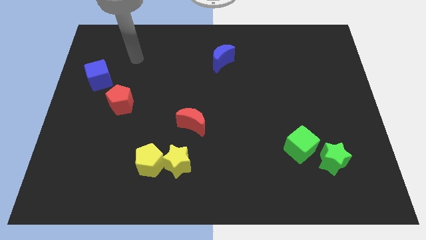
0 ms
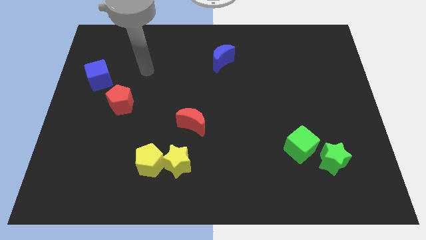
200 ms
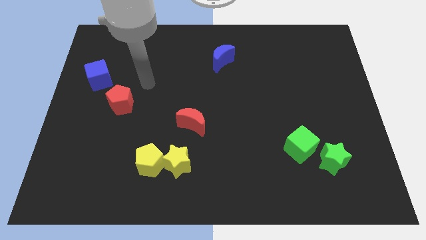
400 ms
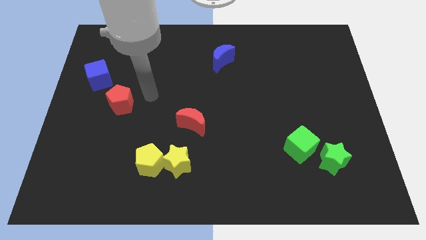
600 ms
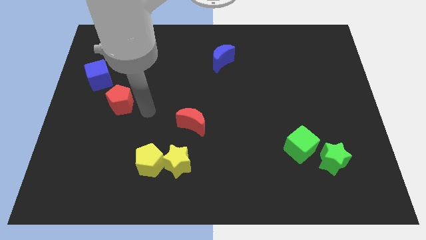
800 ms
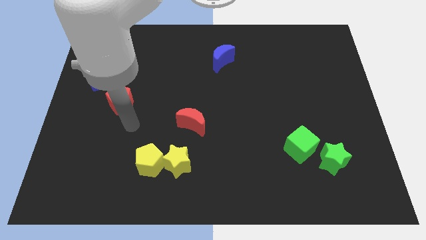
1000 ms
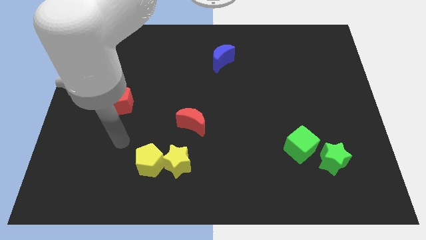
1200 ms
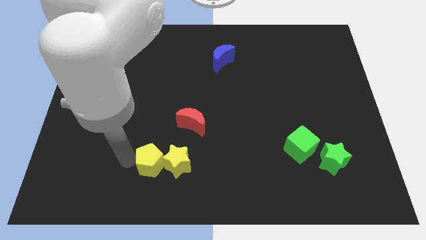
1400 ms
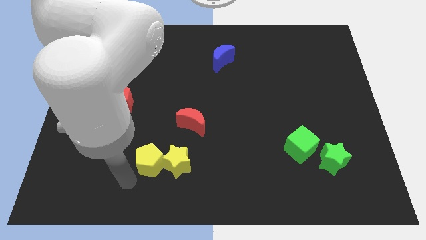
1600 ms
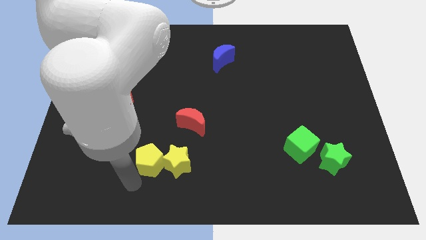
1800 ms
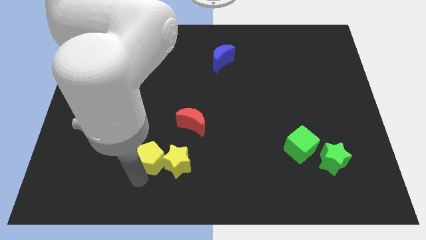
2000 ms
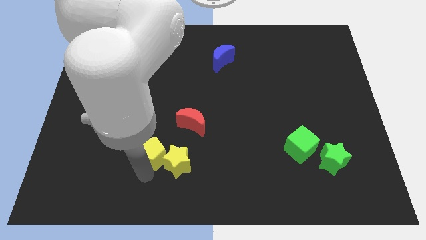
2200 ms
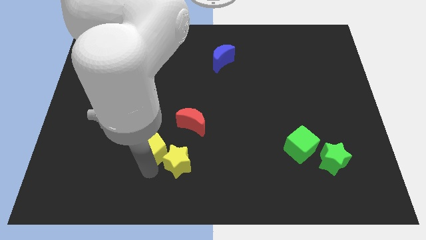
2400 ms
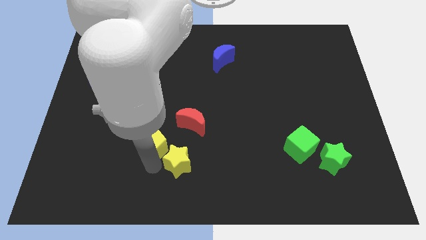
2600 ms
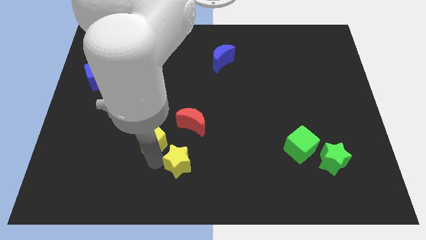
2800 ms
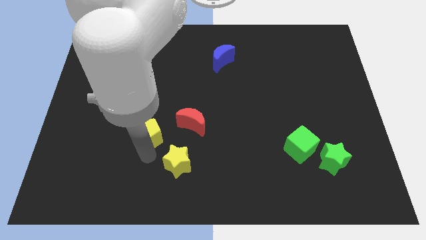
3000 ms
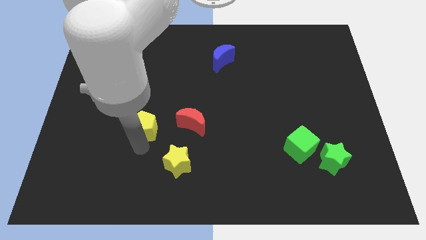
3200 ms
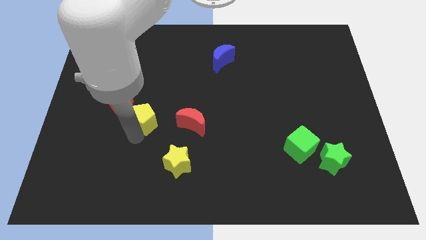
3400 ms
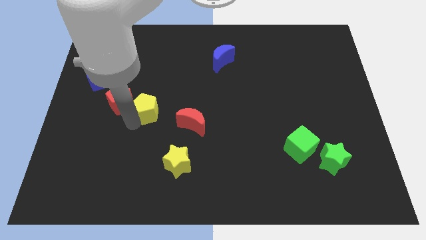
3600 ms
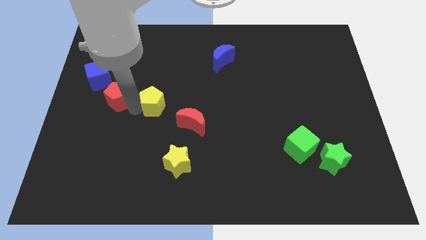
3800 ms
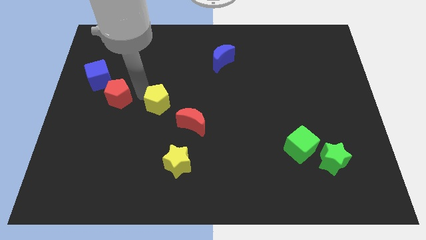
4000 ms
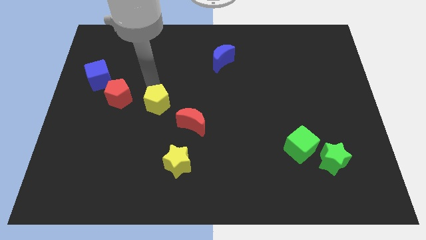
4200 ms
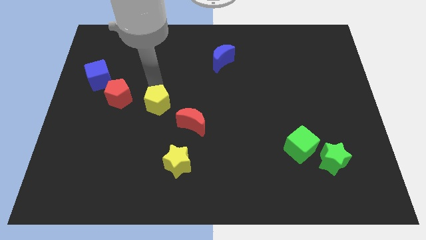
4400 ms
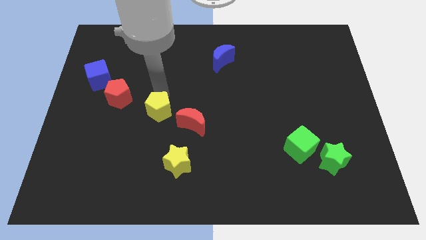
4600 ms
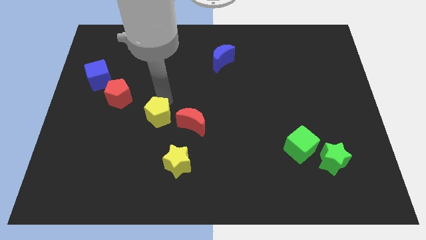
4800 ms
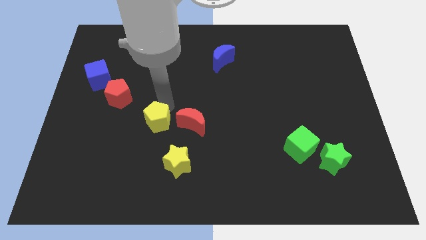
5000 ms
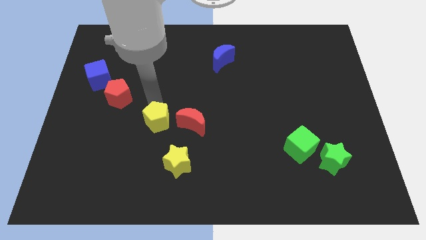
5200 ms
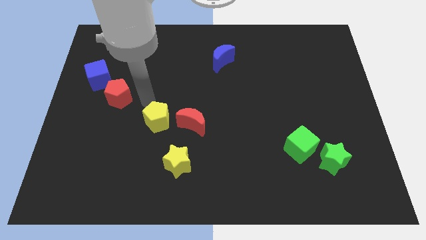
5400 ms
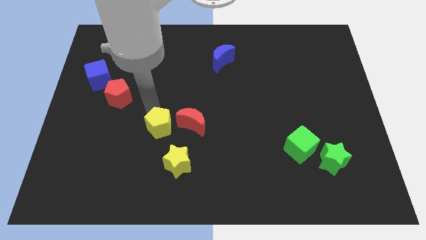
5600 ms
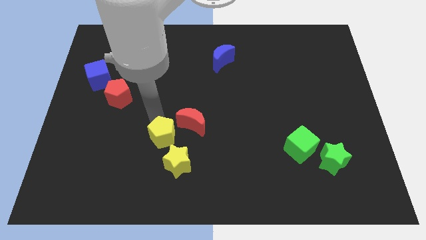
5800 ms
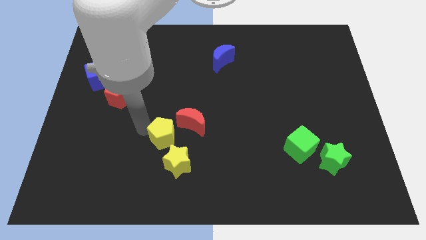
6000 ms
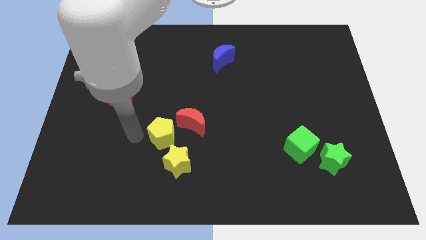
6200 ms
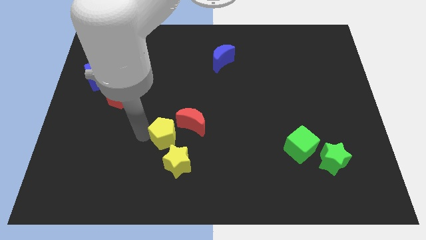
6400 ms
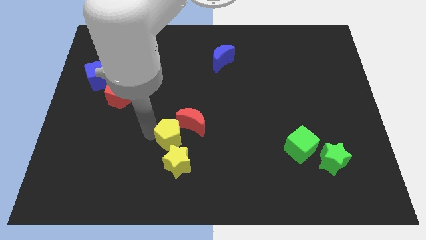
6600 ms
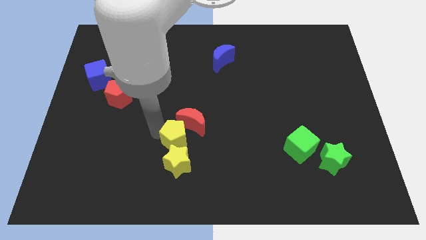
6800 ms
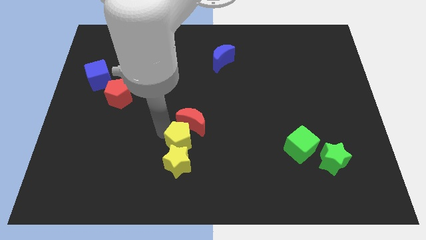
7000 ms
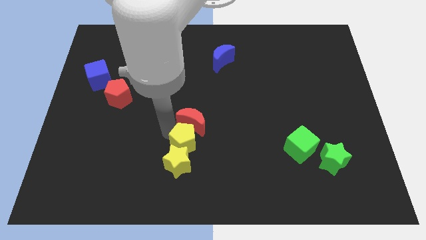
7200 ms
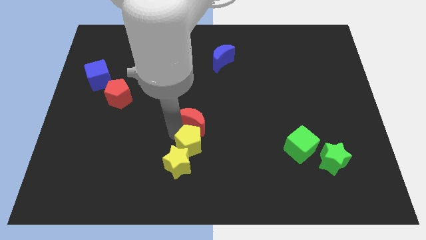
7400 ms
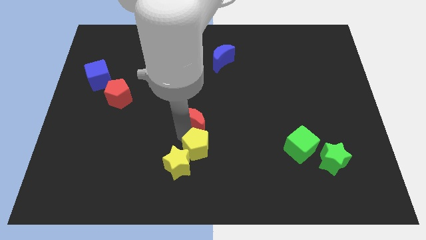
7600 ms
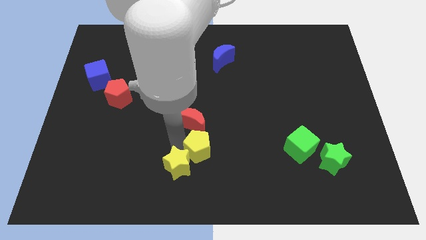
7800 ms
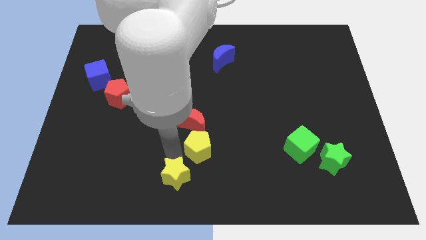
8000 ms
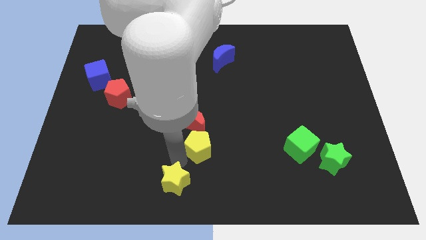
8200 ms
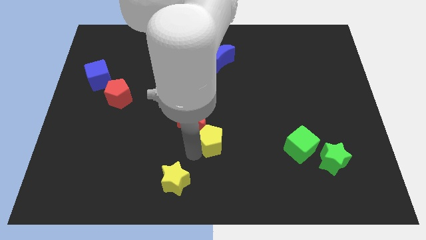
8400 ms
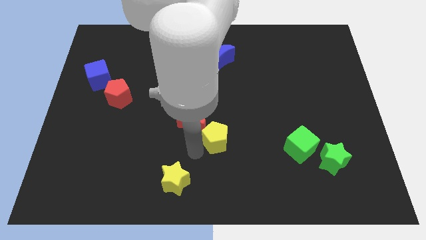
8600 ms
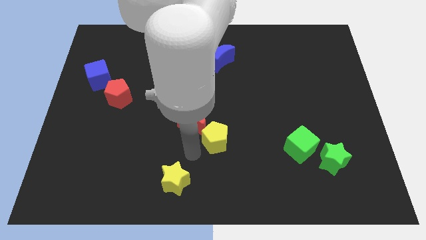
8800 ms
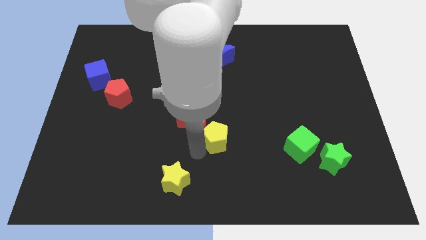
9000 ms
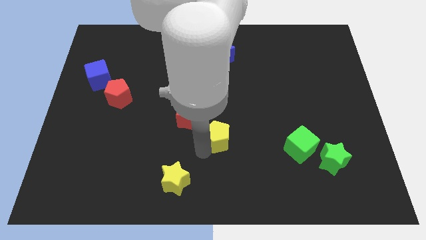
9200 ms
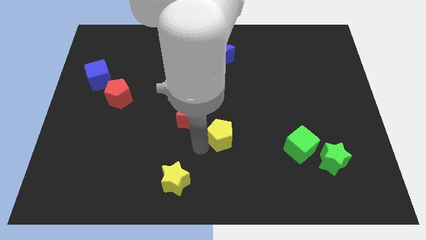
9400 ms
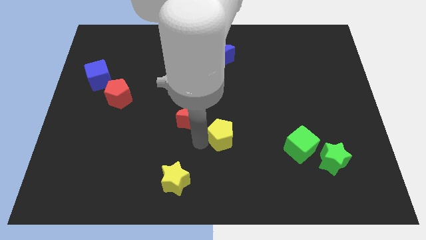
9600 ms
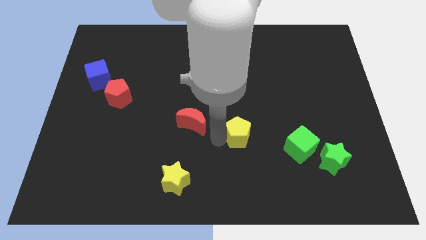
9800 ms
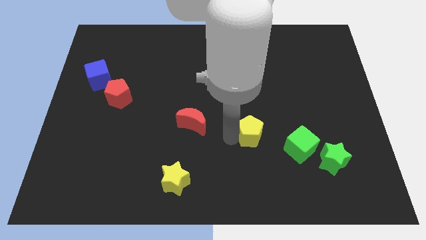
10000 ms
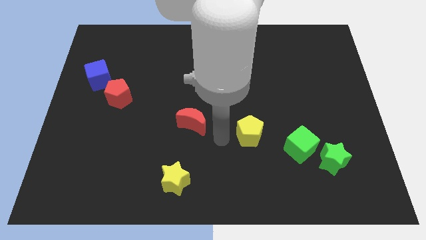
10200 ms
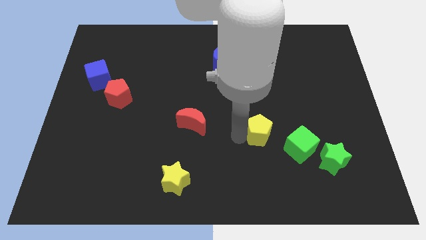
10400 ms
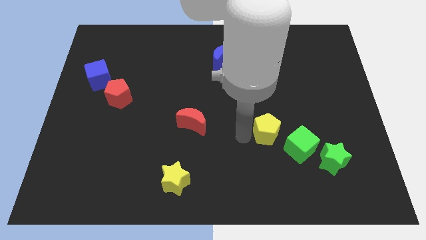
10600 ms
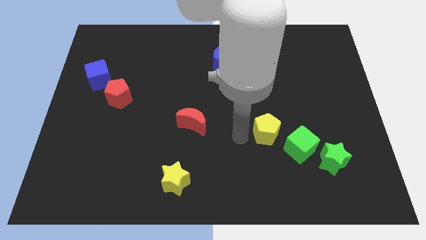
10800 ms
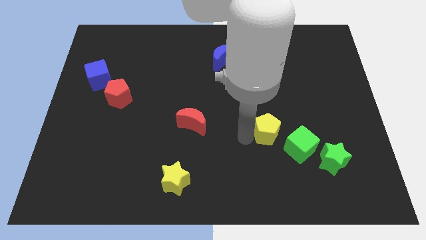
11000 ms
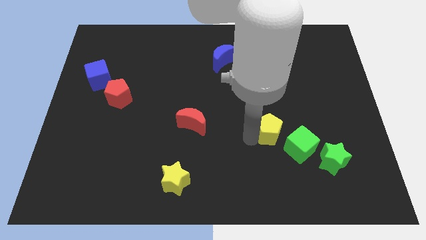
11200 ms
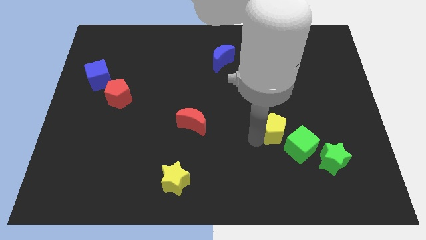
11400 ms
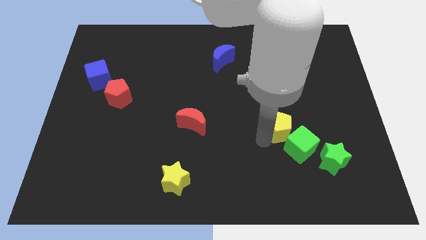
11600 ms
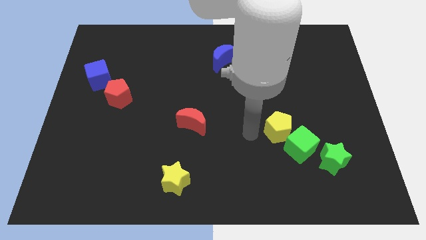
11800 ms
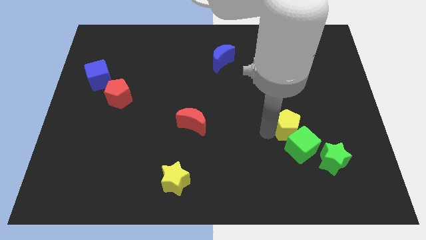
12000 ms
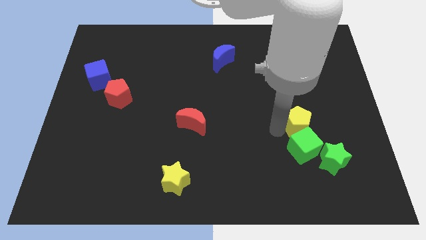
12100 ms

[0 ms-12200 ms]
push the yellow pentagon to the top right of the green cube

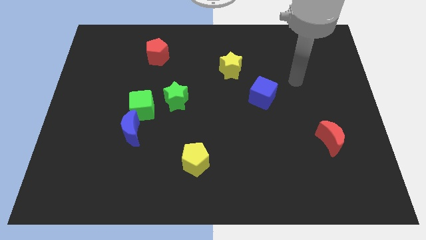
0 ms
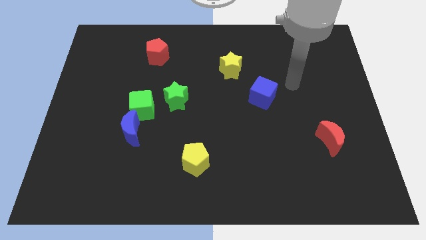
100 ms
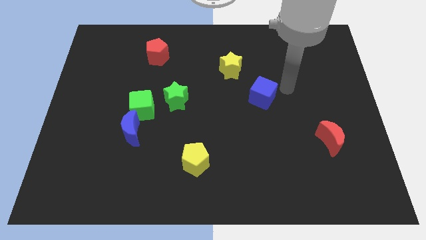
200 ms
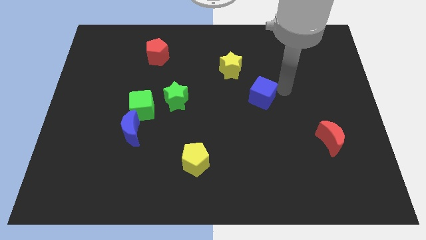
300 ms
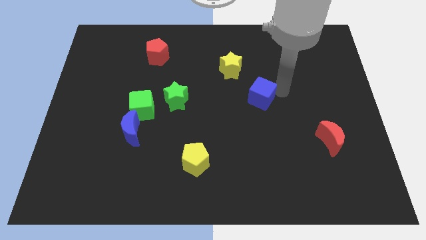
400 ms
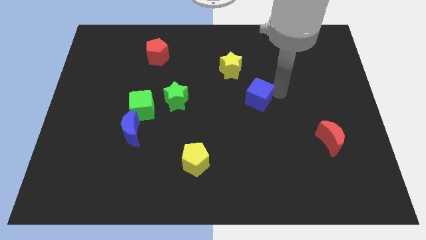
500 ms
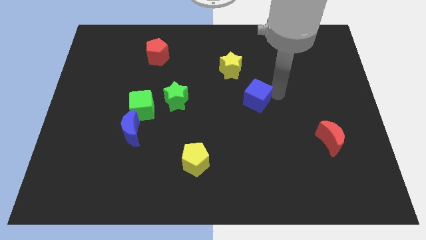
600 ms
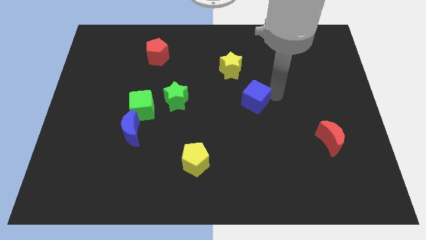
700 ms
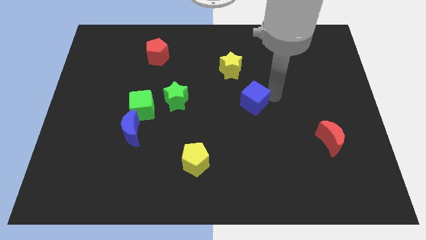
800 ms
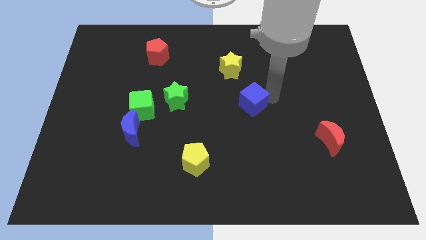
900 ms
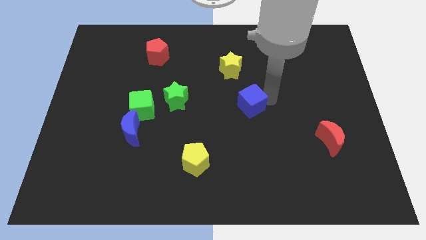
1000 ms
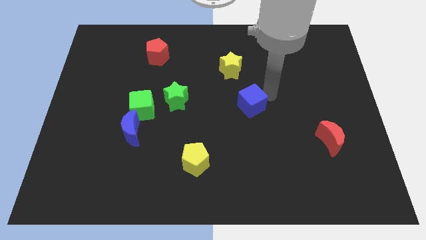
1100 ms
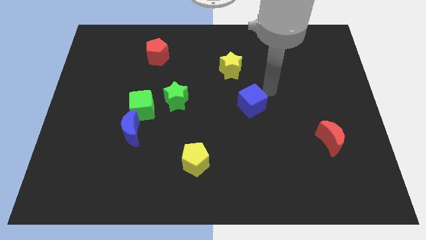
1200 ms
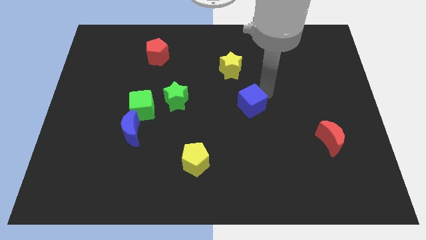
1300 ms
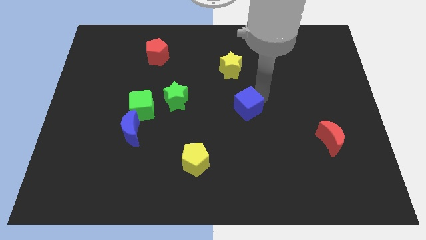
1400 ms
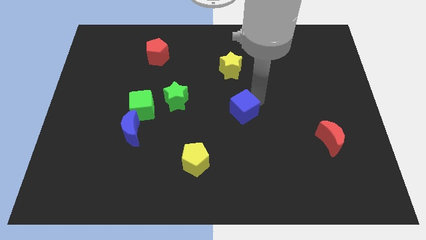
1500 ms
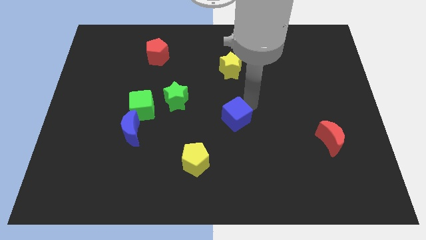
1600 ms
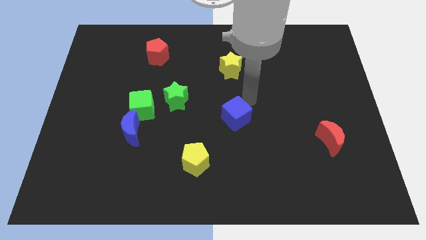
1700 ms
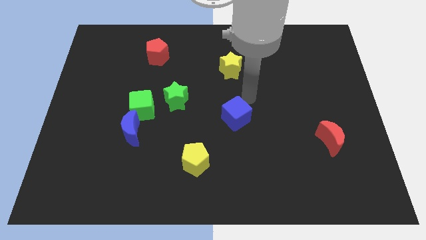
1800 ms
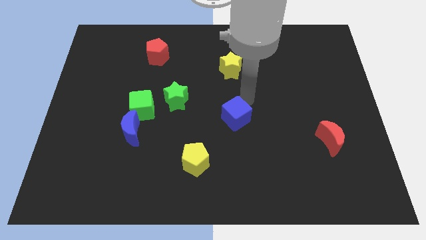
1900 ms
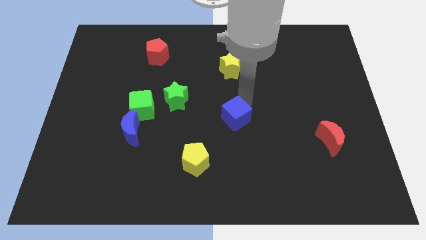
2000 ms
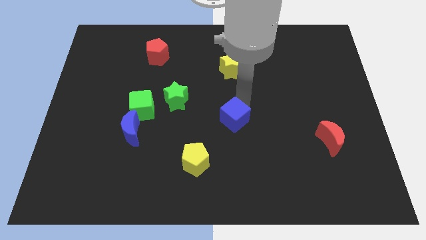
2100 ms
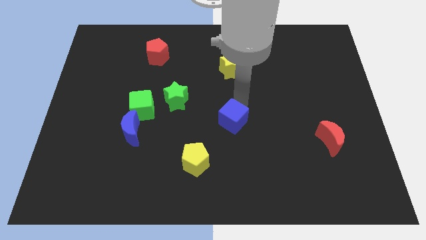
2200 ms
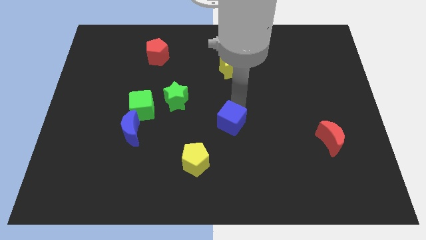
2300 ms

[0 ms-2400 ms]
move the blue cube to the top right side of the yellow pentagon
